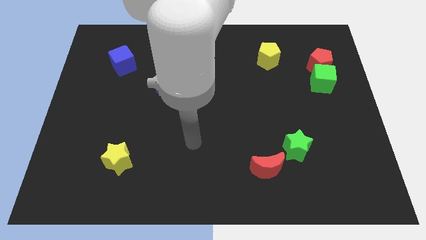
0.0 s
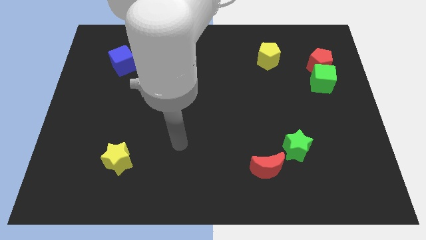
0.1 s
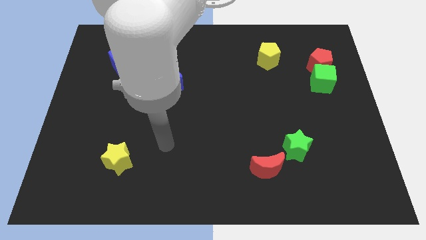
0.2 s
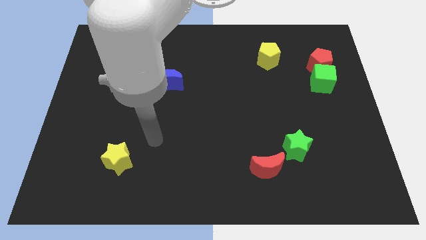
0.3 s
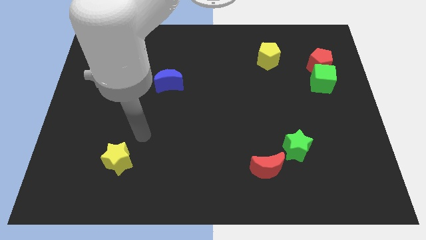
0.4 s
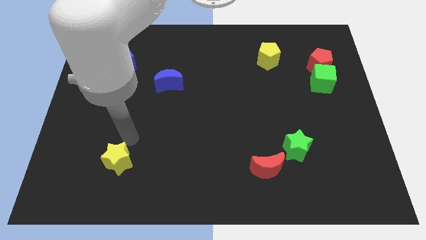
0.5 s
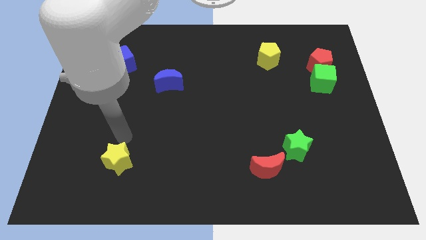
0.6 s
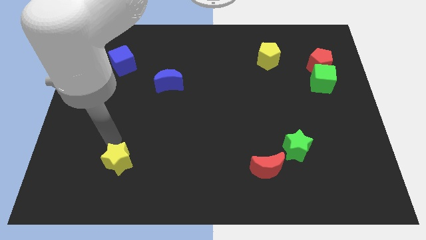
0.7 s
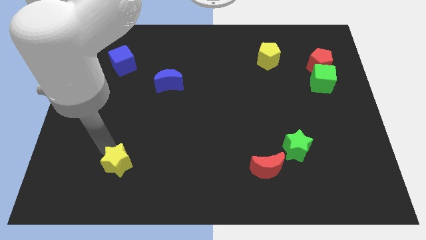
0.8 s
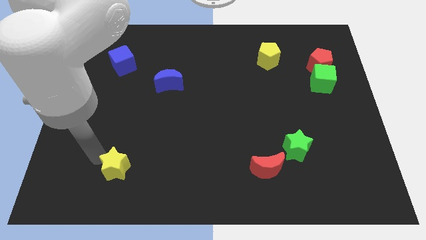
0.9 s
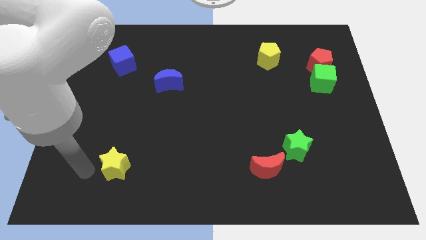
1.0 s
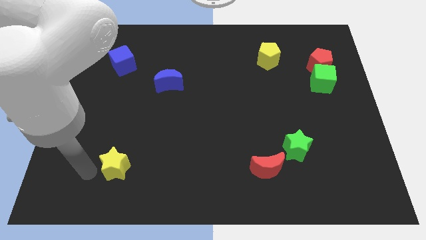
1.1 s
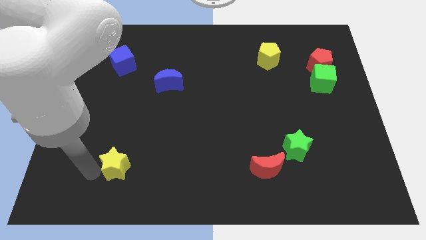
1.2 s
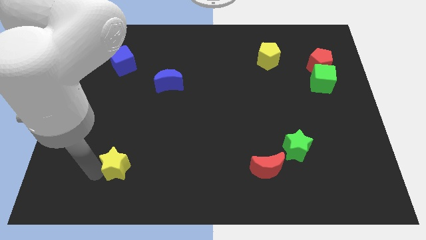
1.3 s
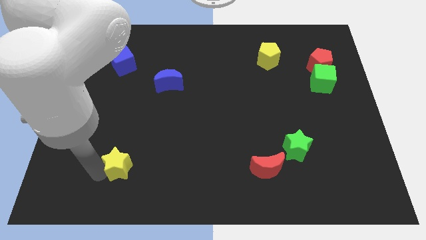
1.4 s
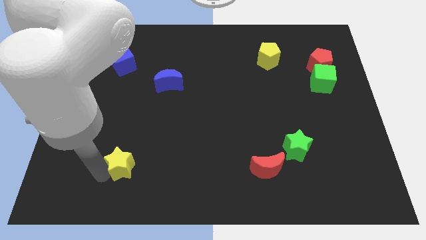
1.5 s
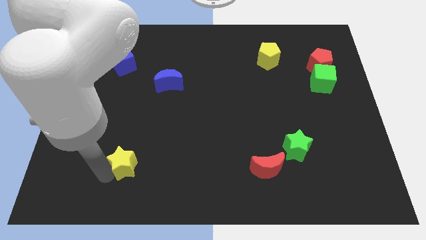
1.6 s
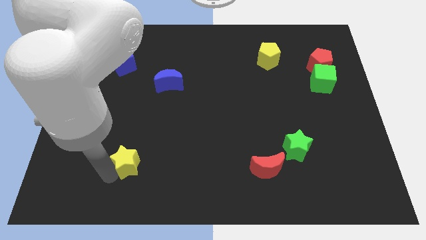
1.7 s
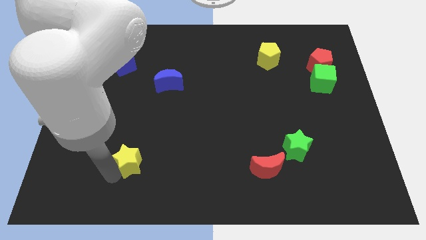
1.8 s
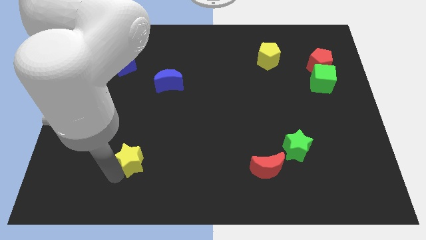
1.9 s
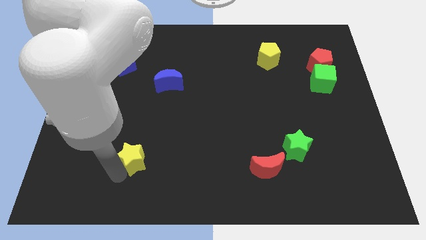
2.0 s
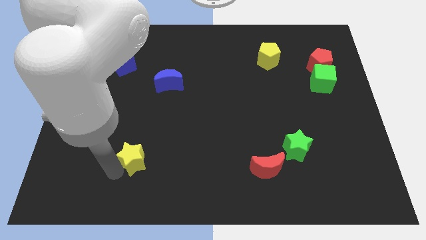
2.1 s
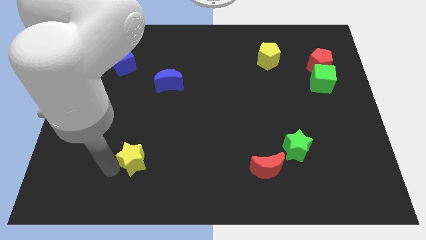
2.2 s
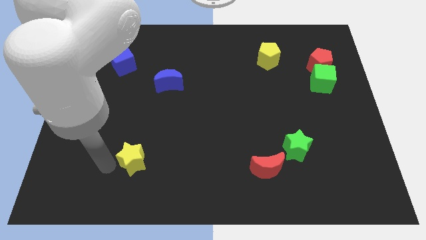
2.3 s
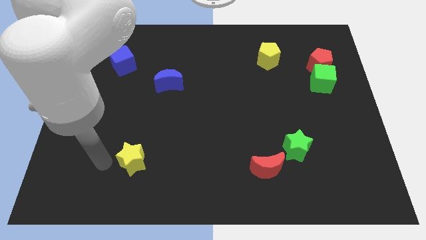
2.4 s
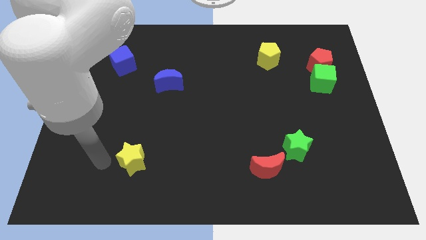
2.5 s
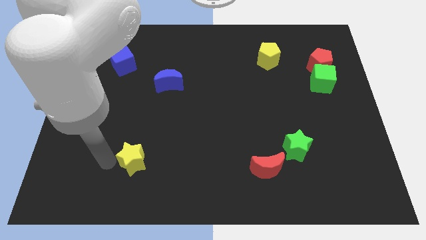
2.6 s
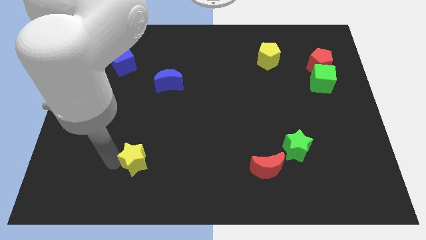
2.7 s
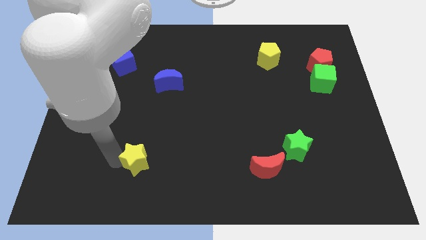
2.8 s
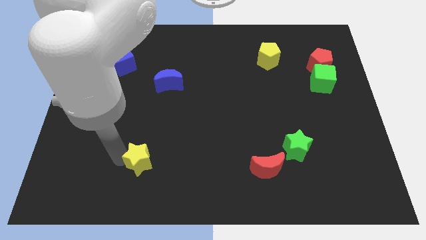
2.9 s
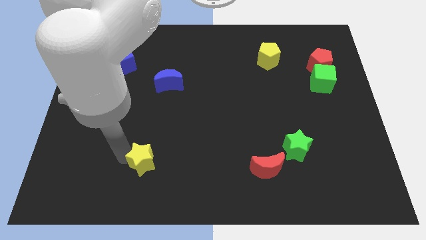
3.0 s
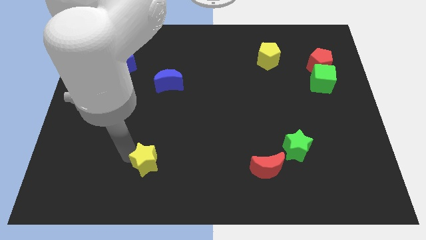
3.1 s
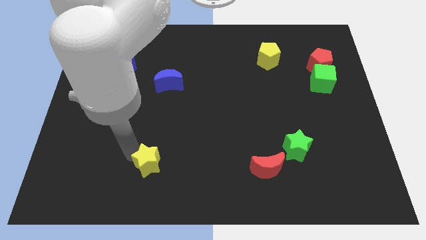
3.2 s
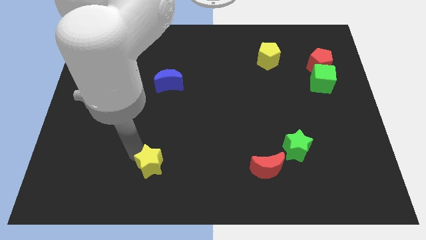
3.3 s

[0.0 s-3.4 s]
slide the yellow star to the right a little bit

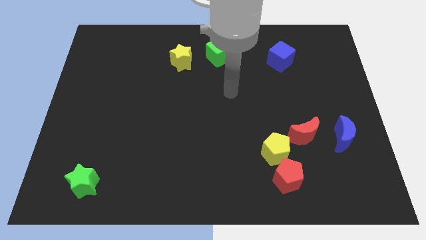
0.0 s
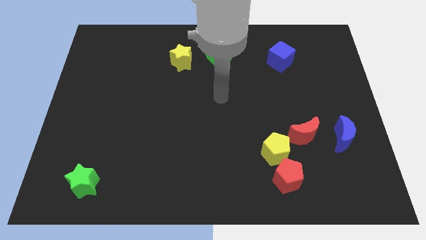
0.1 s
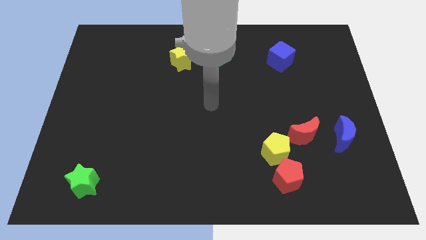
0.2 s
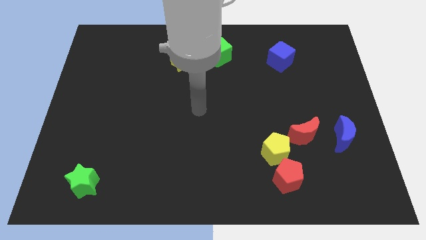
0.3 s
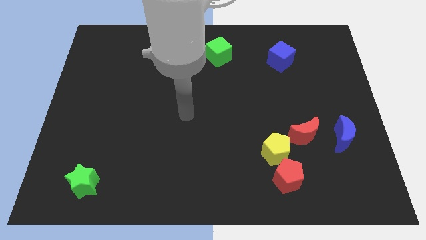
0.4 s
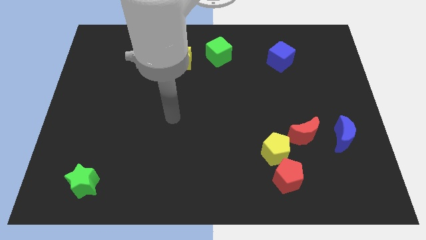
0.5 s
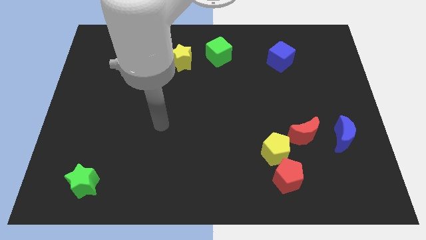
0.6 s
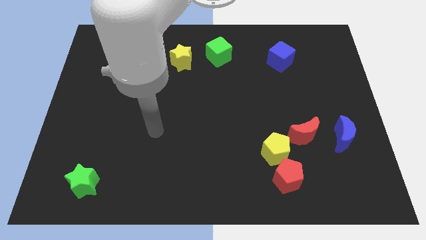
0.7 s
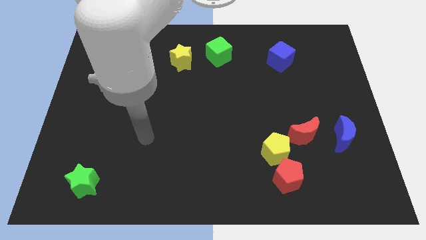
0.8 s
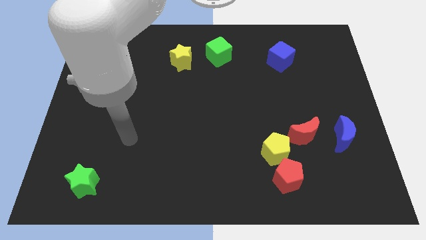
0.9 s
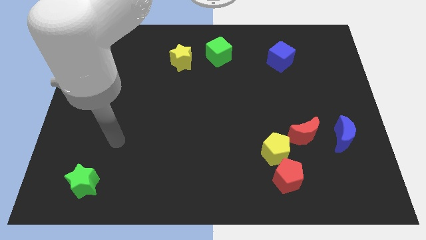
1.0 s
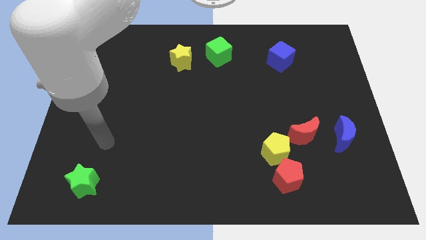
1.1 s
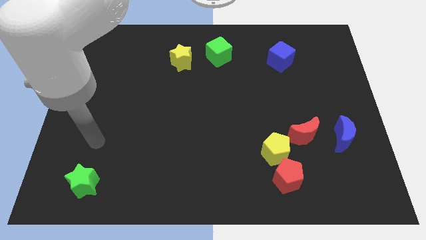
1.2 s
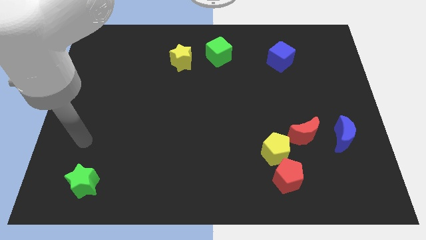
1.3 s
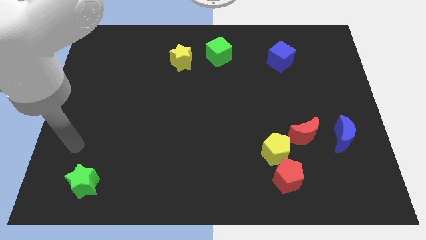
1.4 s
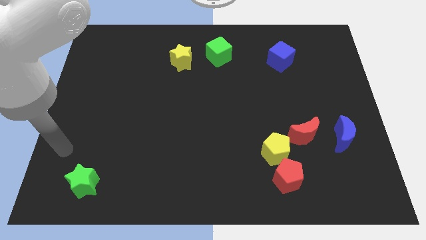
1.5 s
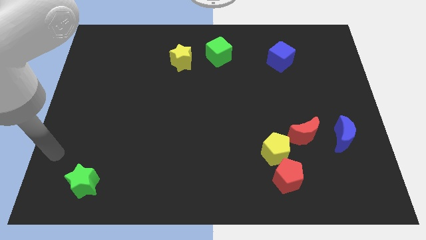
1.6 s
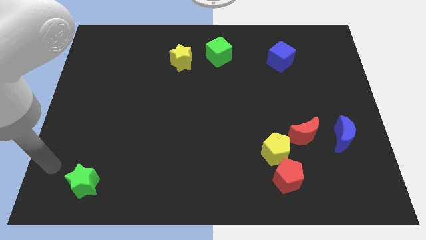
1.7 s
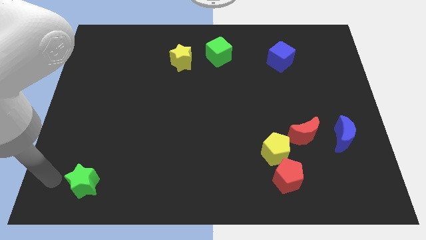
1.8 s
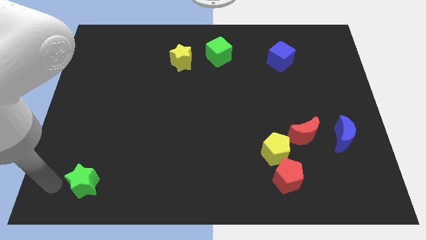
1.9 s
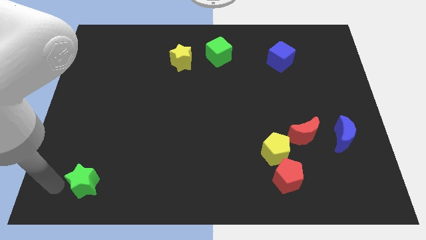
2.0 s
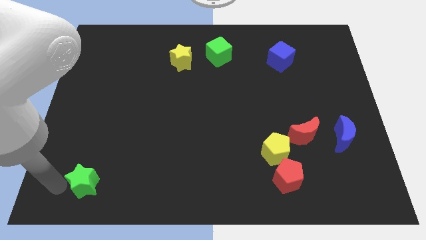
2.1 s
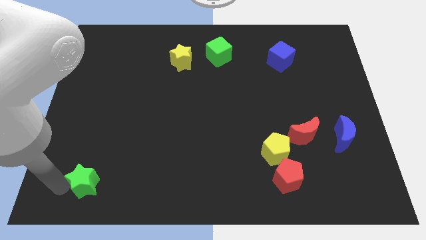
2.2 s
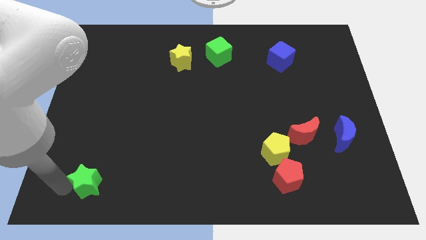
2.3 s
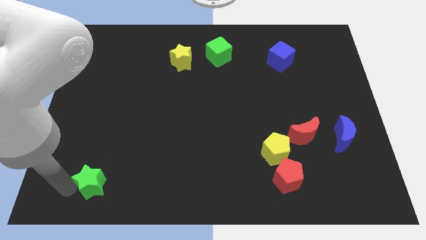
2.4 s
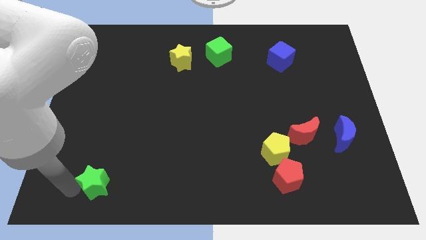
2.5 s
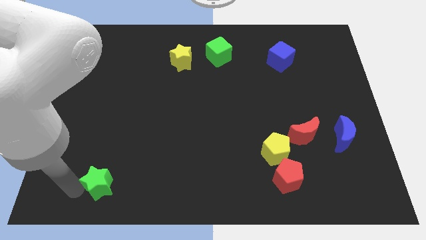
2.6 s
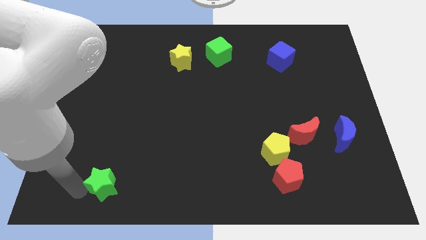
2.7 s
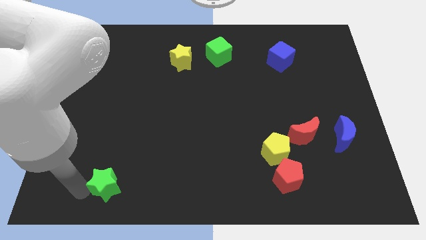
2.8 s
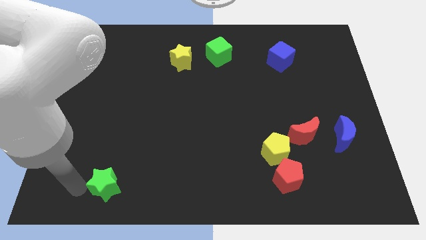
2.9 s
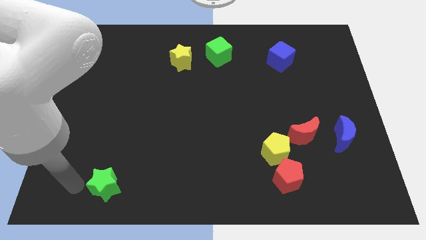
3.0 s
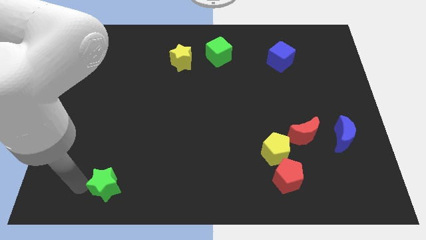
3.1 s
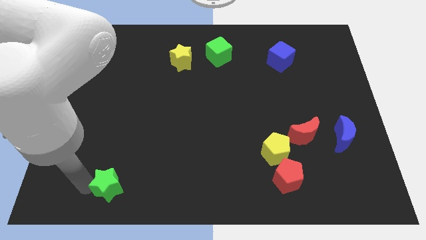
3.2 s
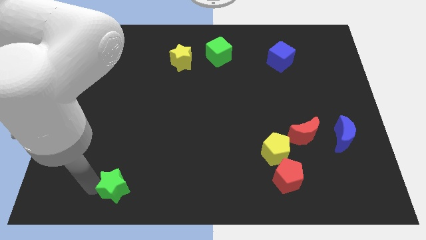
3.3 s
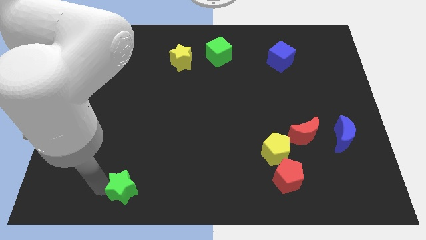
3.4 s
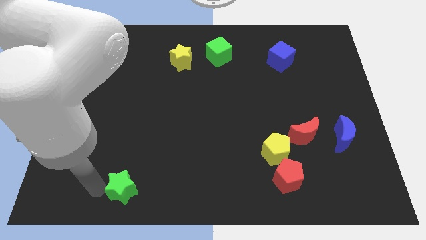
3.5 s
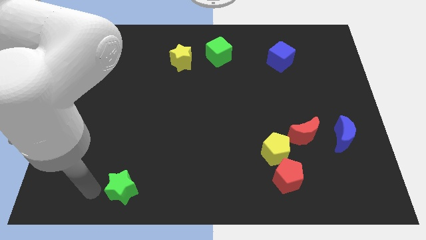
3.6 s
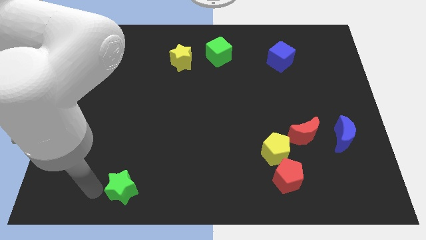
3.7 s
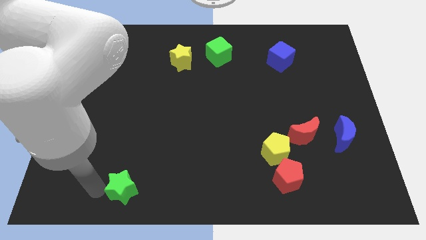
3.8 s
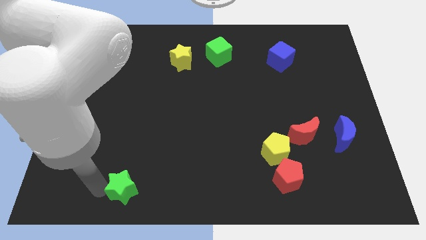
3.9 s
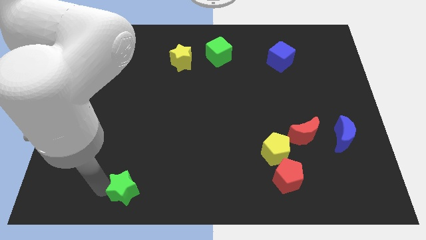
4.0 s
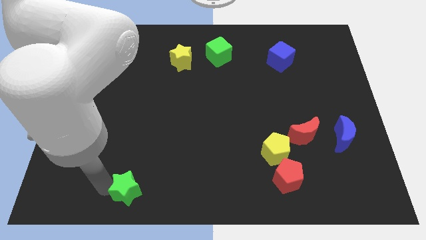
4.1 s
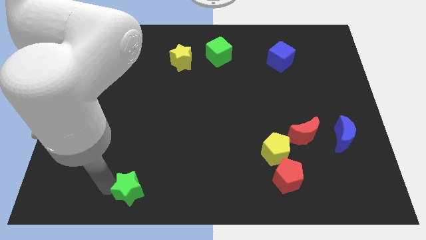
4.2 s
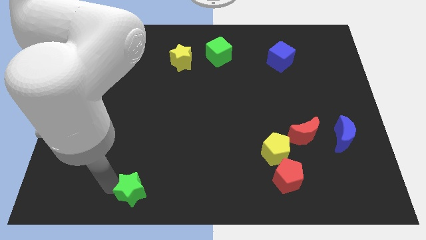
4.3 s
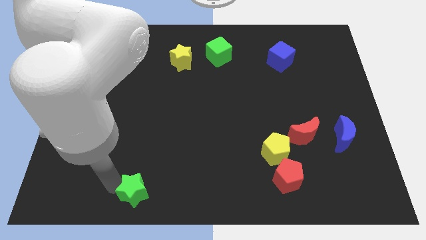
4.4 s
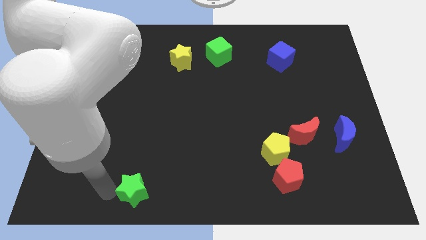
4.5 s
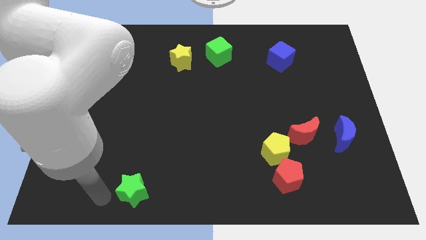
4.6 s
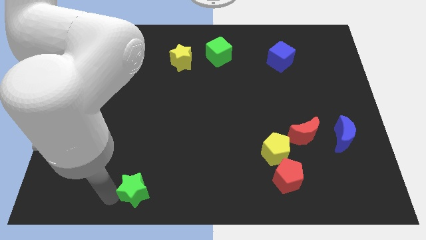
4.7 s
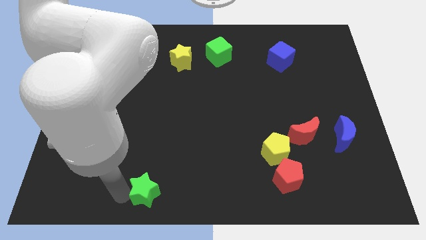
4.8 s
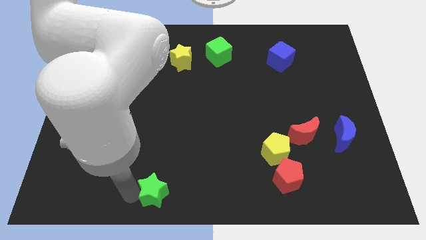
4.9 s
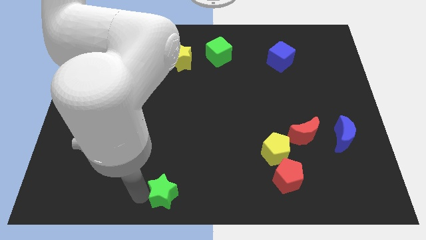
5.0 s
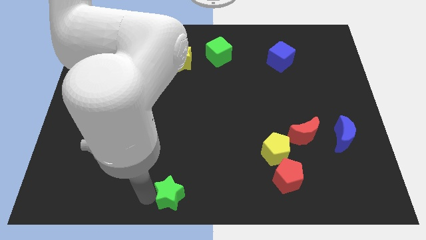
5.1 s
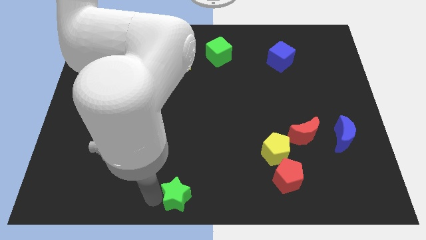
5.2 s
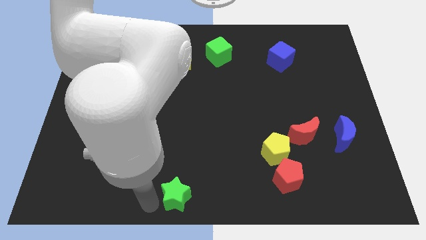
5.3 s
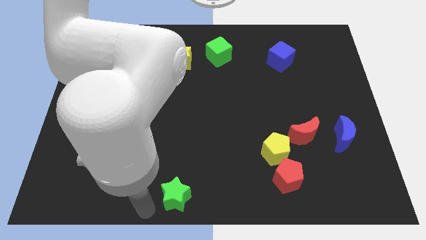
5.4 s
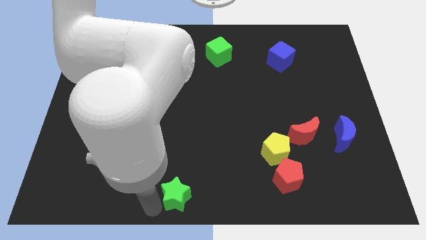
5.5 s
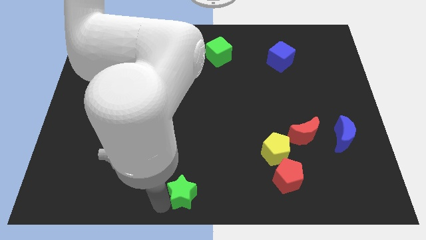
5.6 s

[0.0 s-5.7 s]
push the green star to the right
